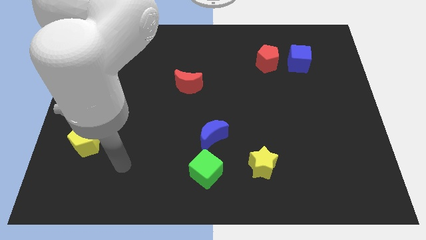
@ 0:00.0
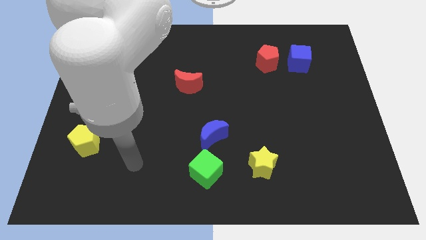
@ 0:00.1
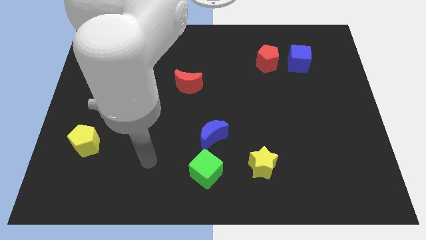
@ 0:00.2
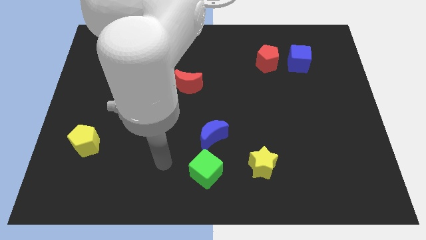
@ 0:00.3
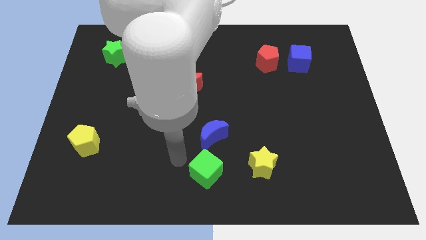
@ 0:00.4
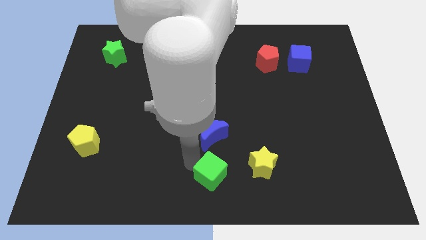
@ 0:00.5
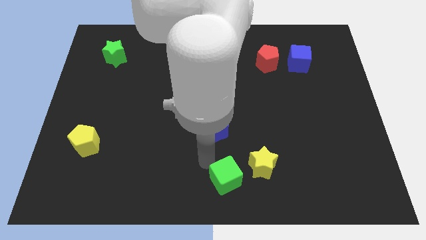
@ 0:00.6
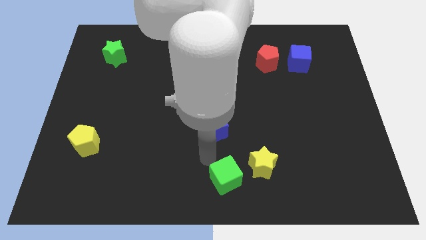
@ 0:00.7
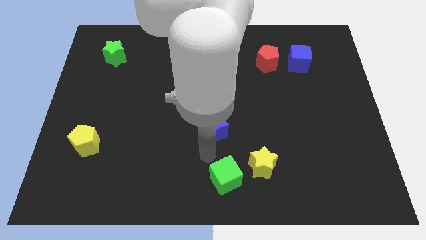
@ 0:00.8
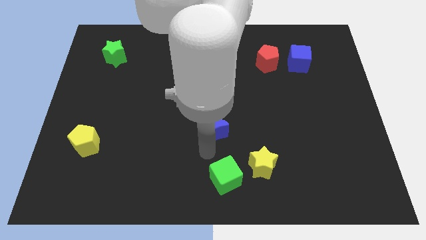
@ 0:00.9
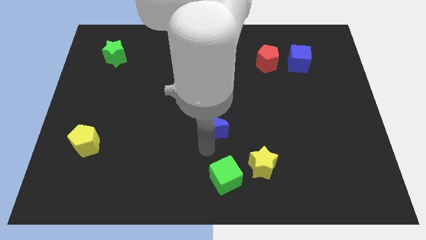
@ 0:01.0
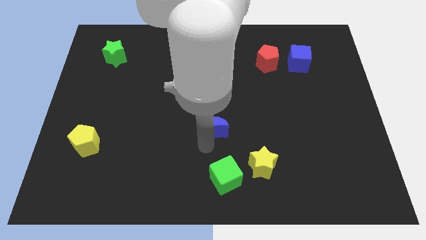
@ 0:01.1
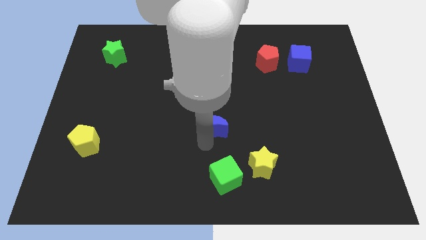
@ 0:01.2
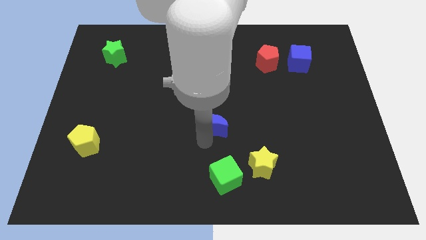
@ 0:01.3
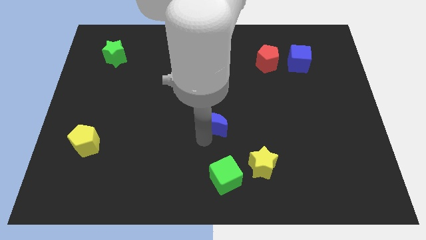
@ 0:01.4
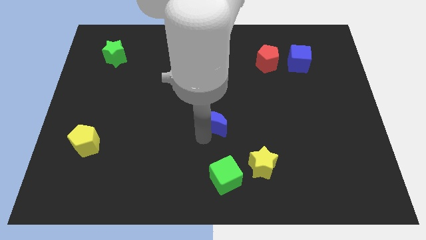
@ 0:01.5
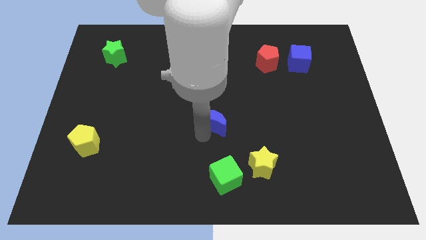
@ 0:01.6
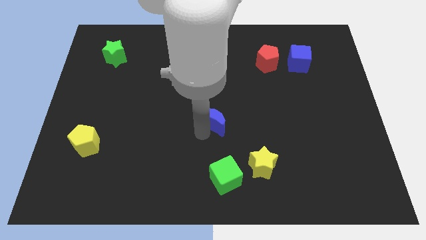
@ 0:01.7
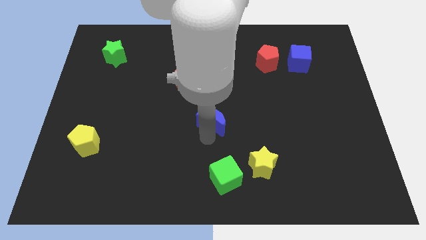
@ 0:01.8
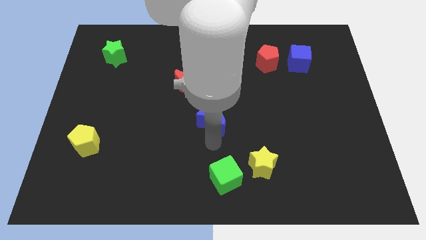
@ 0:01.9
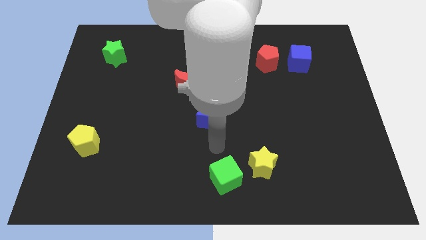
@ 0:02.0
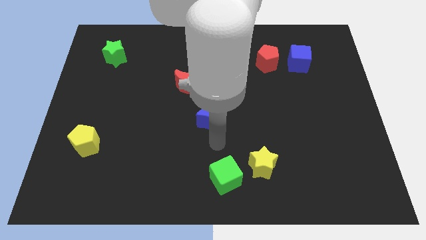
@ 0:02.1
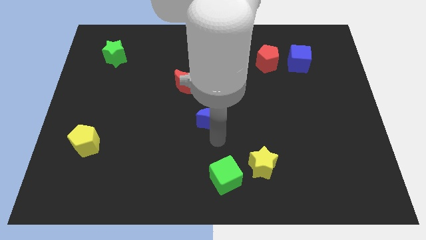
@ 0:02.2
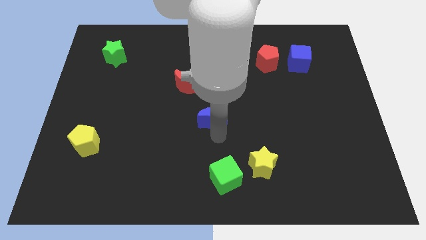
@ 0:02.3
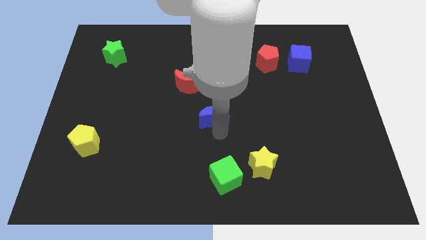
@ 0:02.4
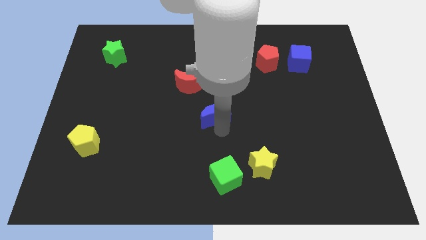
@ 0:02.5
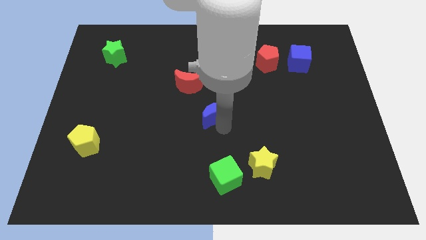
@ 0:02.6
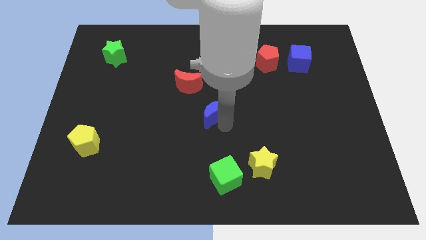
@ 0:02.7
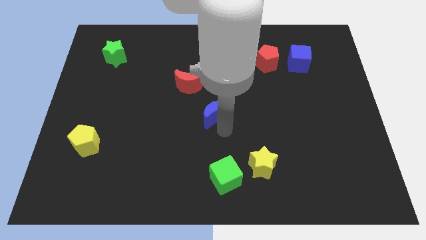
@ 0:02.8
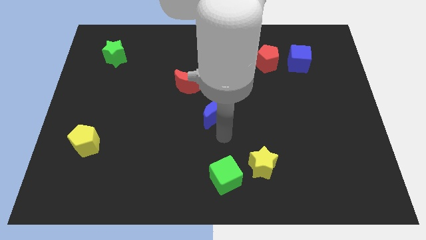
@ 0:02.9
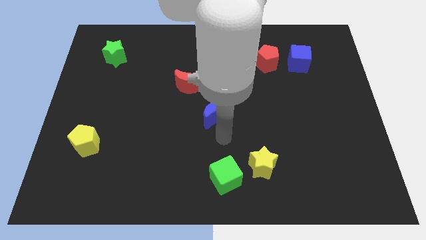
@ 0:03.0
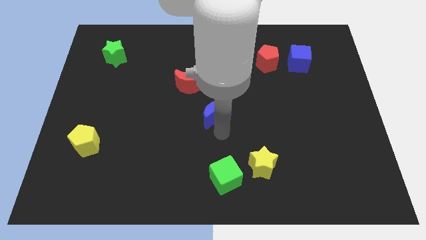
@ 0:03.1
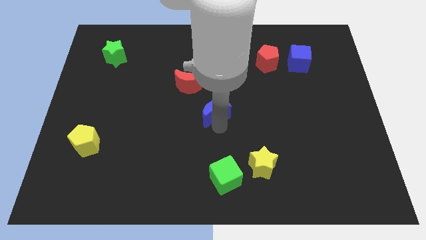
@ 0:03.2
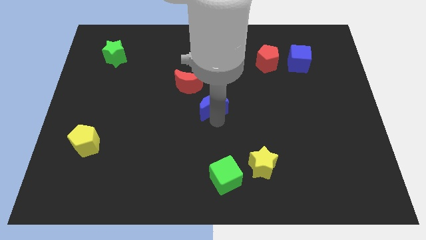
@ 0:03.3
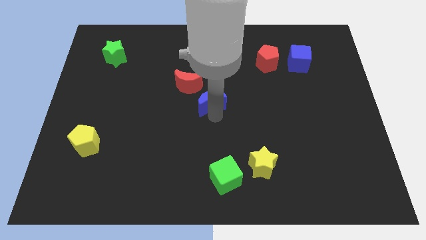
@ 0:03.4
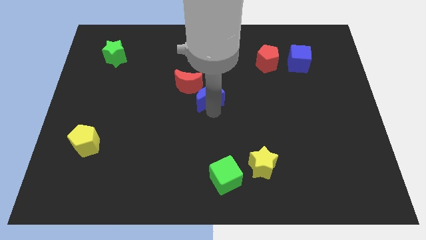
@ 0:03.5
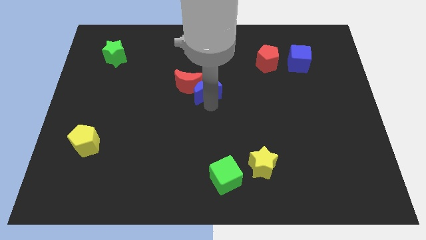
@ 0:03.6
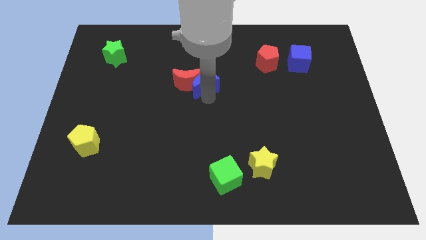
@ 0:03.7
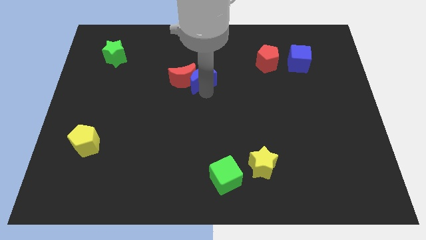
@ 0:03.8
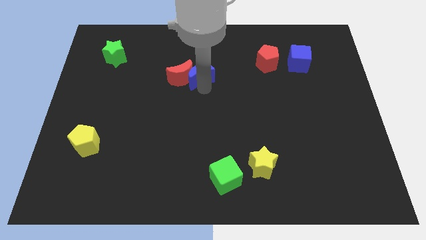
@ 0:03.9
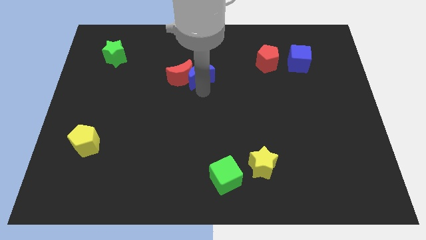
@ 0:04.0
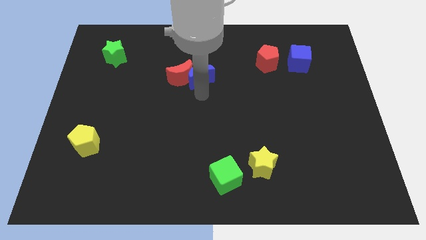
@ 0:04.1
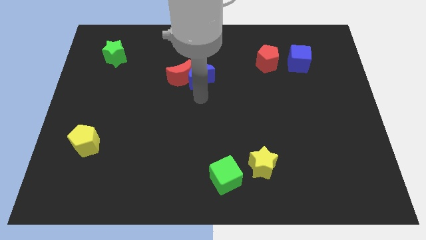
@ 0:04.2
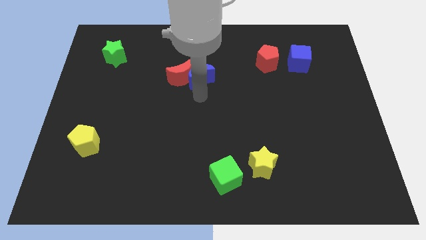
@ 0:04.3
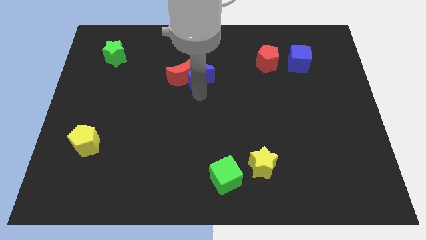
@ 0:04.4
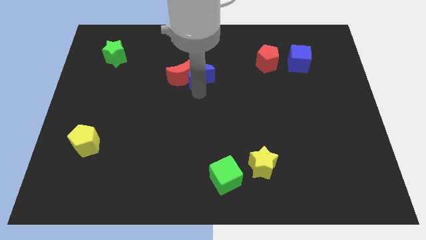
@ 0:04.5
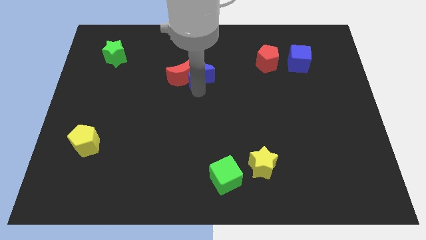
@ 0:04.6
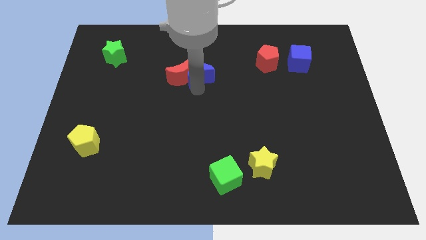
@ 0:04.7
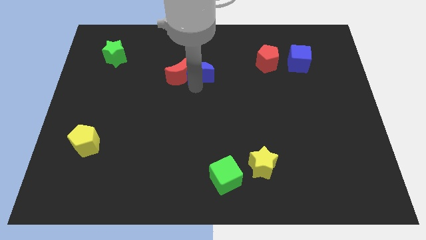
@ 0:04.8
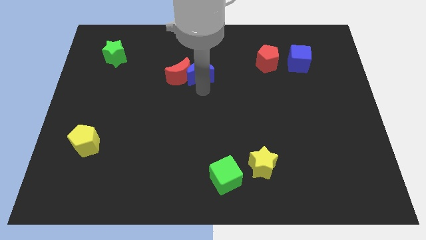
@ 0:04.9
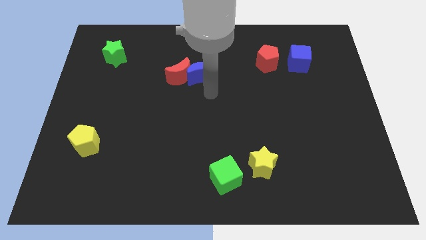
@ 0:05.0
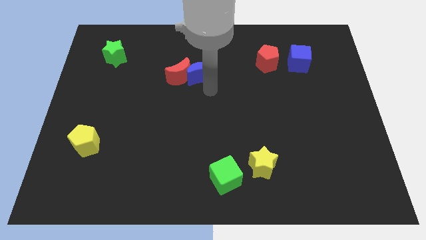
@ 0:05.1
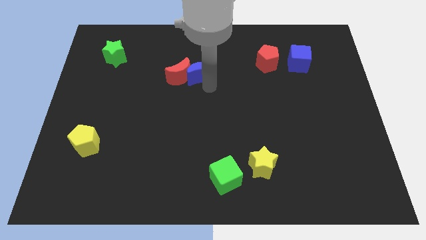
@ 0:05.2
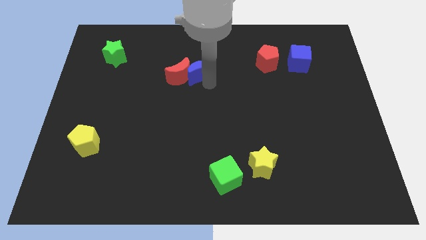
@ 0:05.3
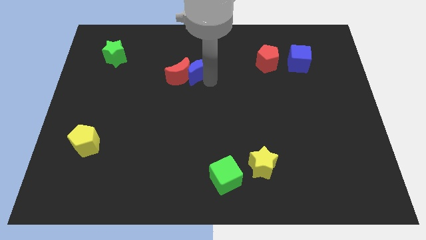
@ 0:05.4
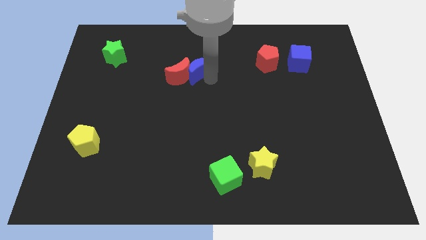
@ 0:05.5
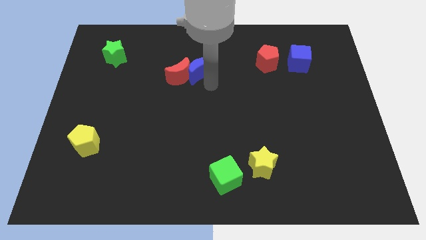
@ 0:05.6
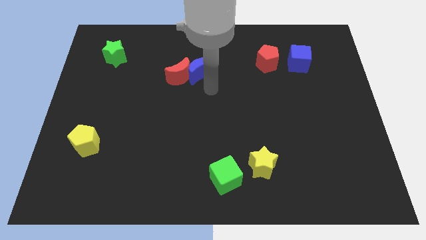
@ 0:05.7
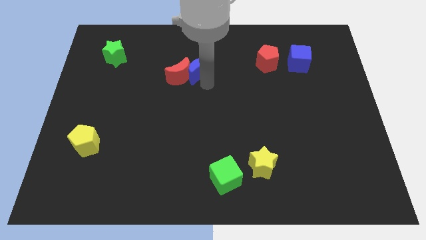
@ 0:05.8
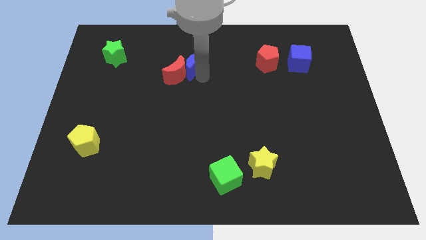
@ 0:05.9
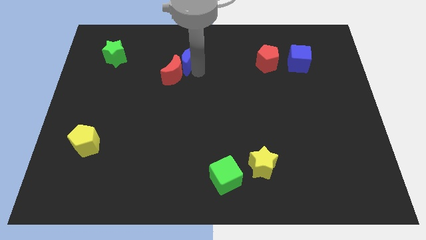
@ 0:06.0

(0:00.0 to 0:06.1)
put the blue moon above the red moon

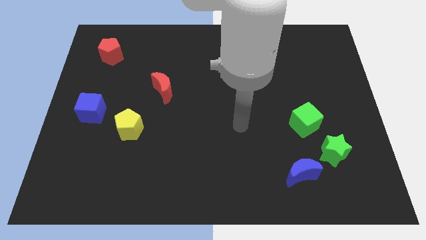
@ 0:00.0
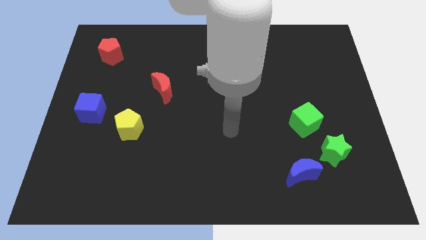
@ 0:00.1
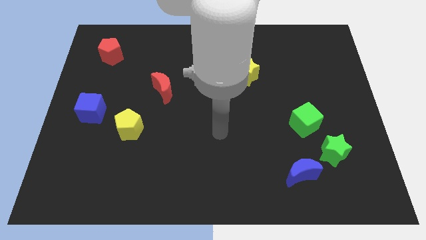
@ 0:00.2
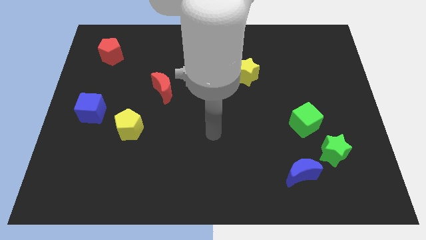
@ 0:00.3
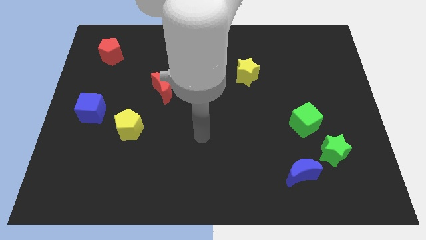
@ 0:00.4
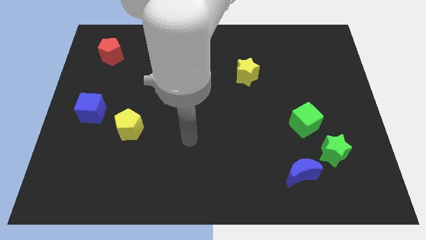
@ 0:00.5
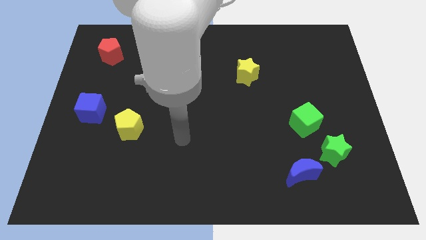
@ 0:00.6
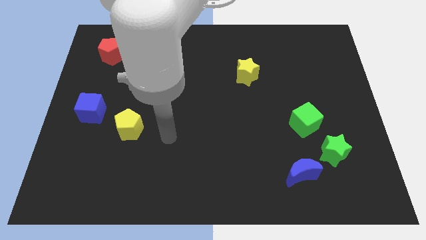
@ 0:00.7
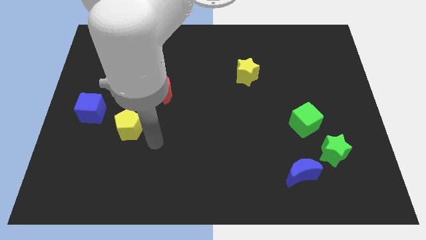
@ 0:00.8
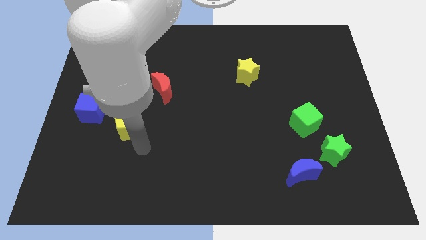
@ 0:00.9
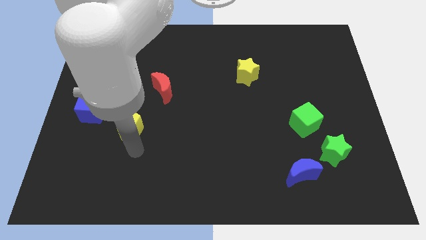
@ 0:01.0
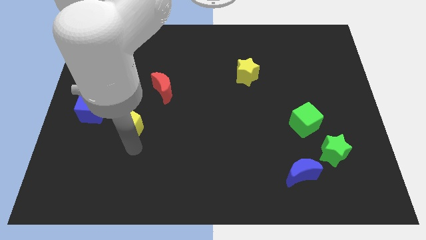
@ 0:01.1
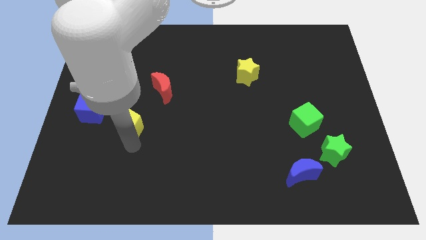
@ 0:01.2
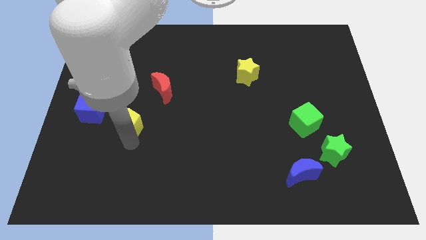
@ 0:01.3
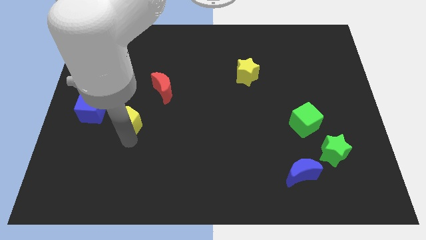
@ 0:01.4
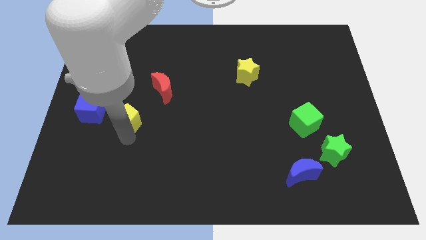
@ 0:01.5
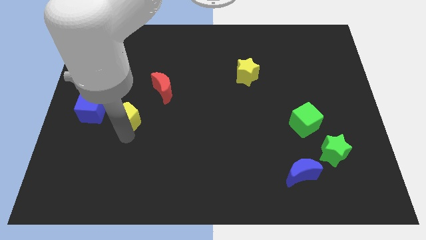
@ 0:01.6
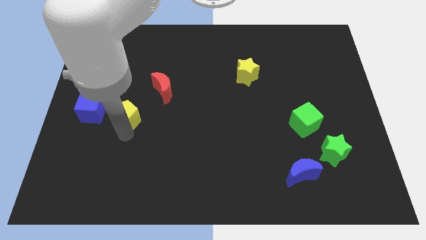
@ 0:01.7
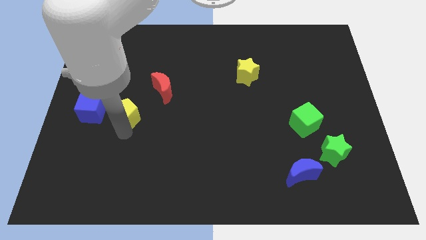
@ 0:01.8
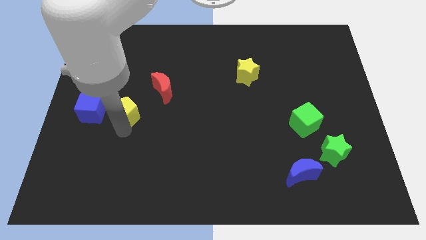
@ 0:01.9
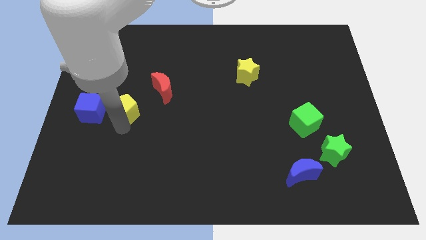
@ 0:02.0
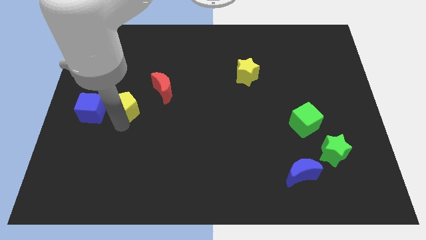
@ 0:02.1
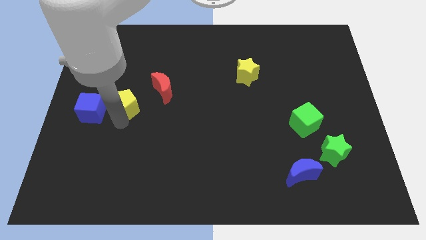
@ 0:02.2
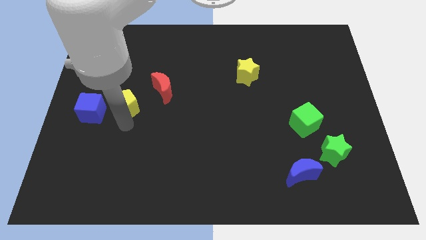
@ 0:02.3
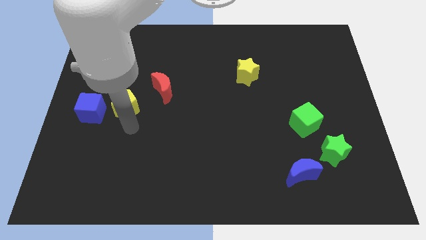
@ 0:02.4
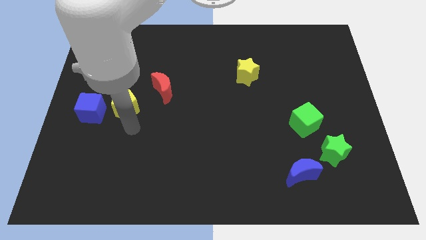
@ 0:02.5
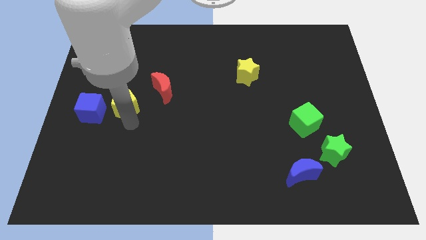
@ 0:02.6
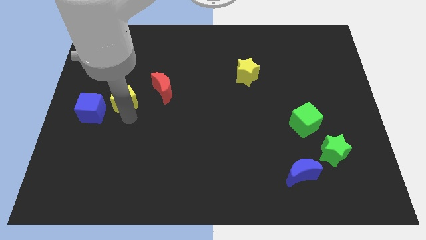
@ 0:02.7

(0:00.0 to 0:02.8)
slide the yellow pentagon left of the red moon
